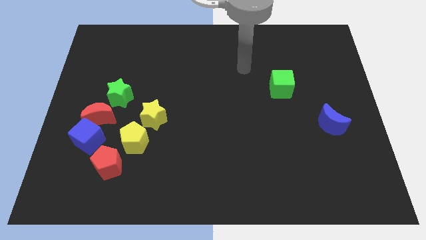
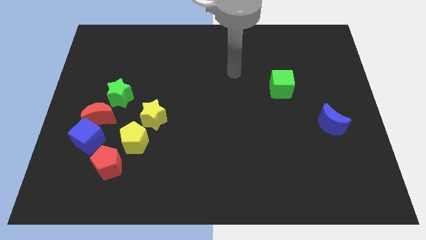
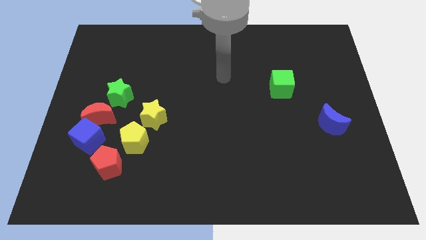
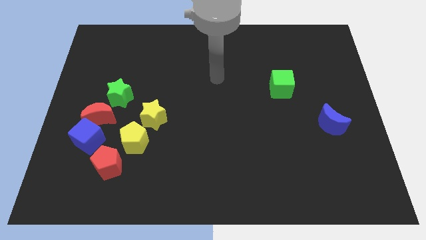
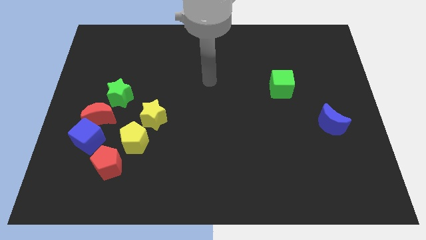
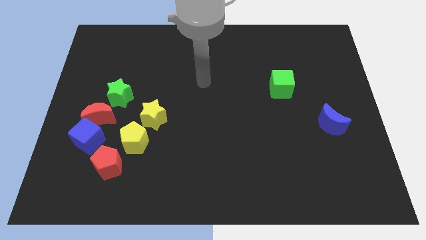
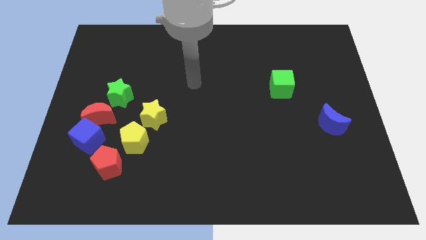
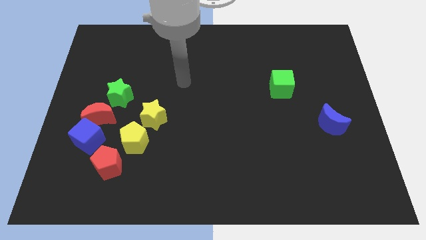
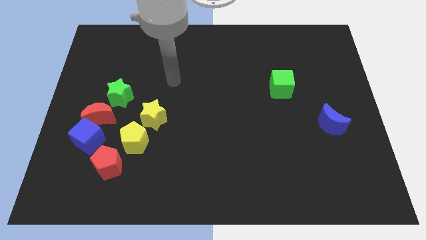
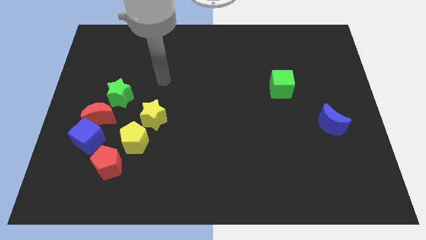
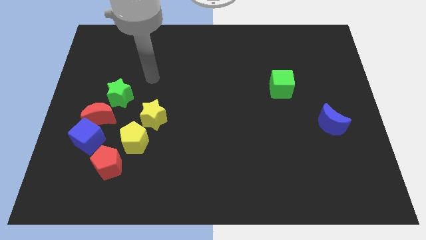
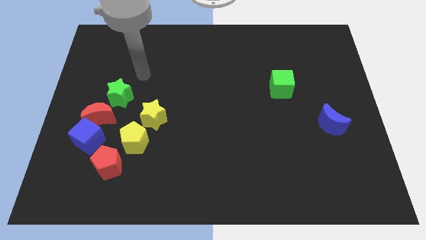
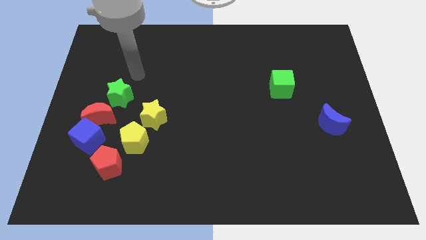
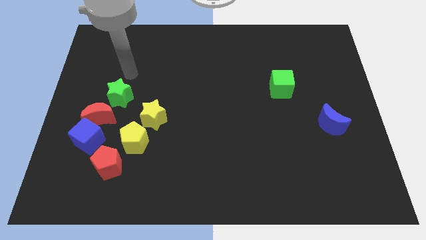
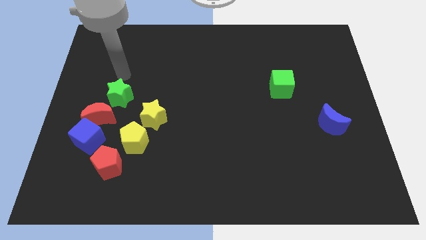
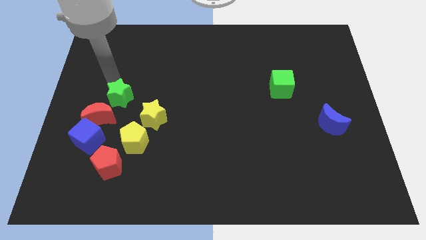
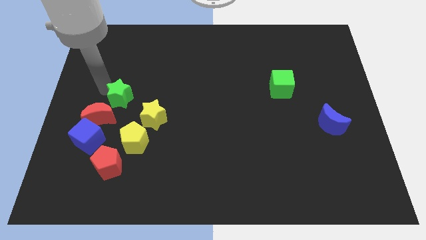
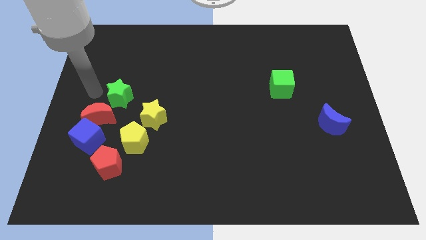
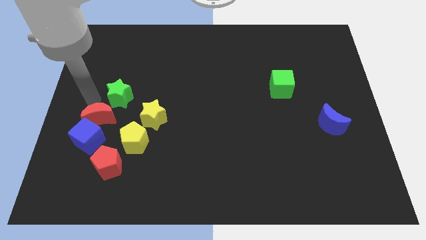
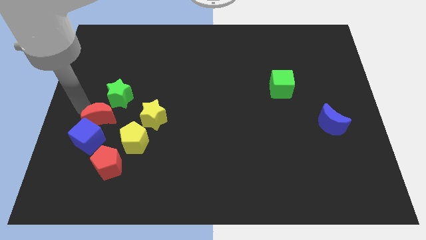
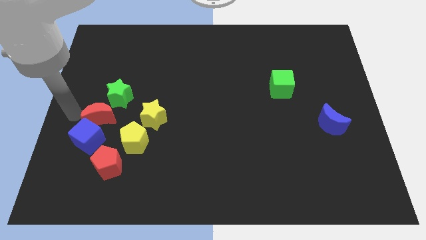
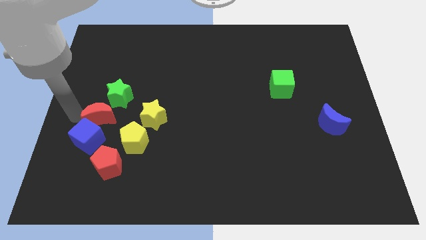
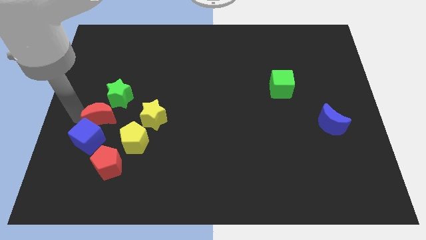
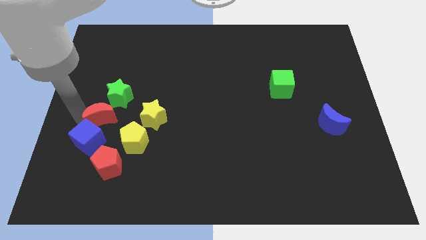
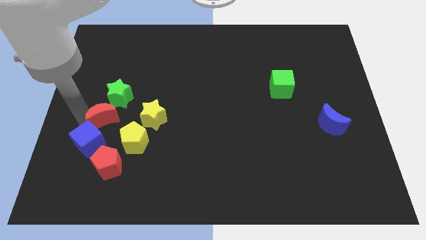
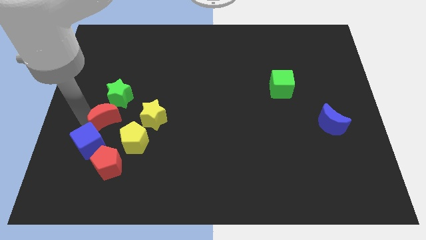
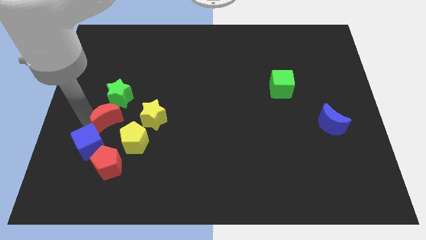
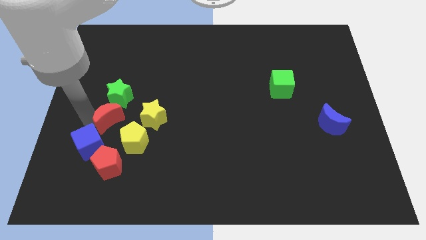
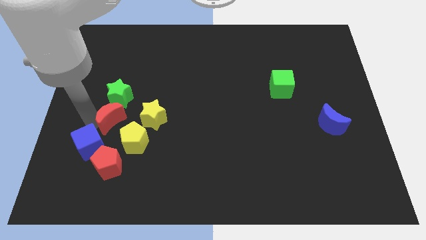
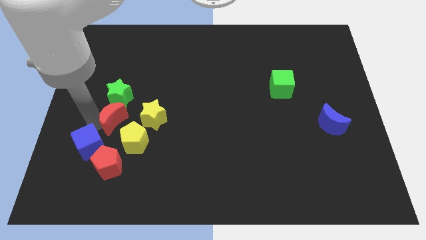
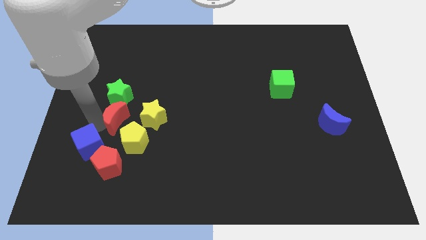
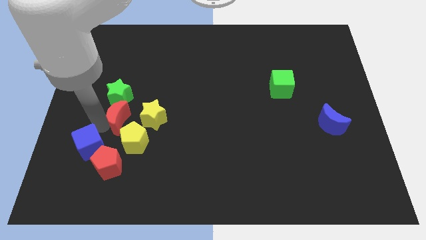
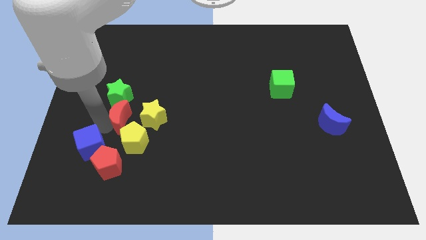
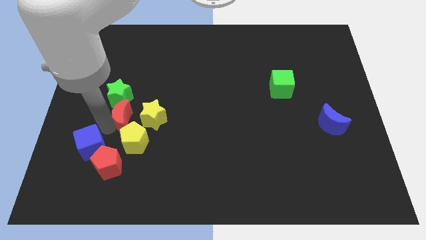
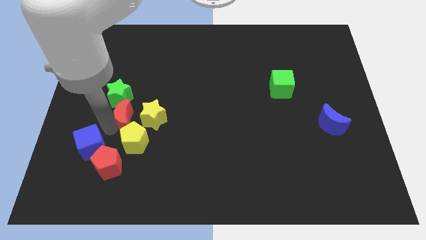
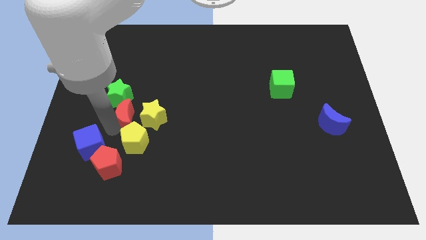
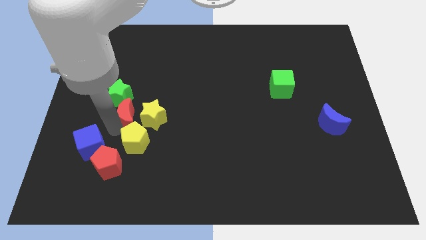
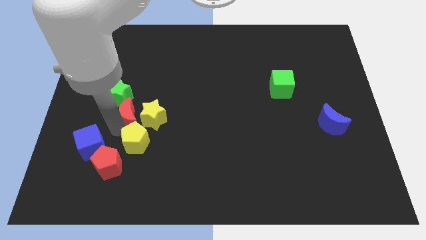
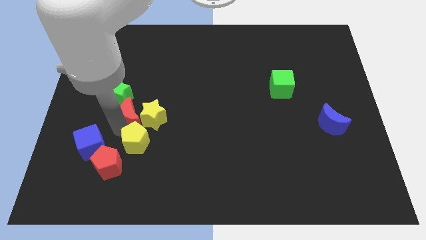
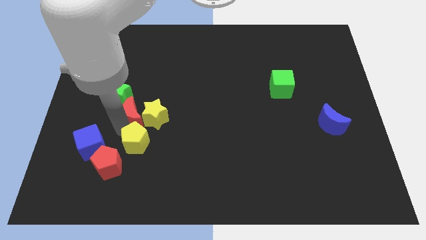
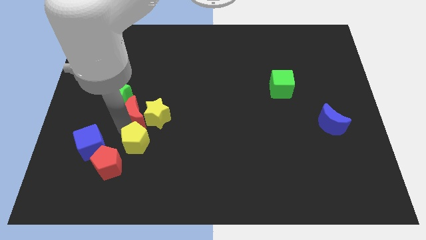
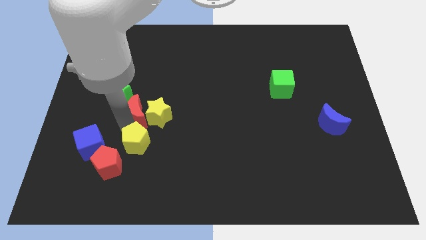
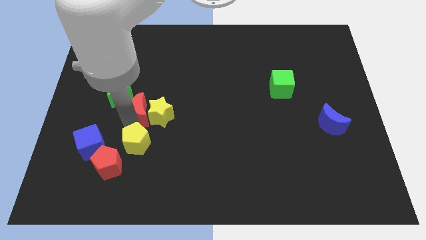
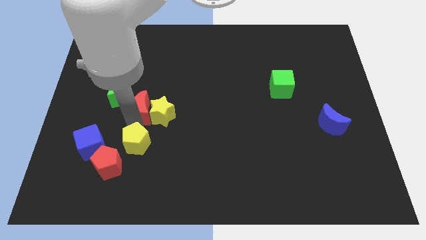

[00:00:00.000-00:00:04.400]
move the red moon somewhat upwards and right diagonally

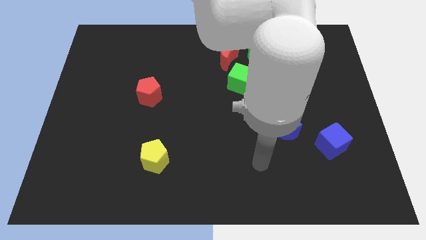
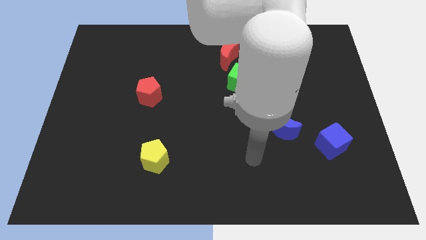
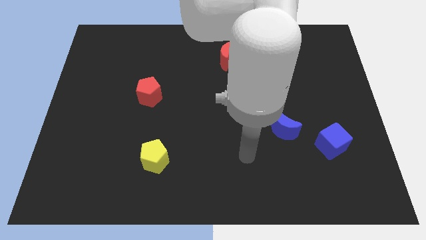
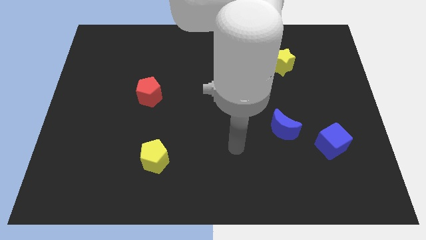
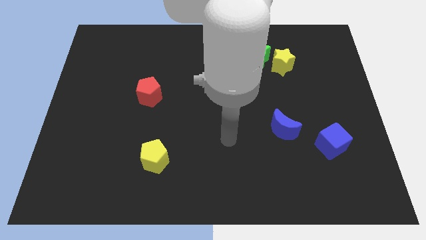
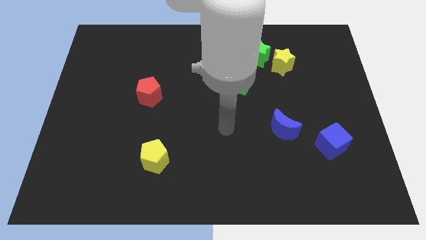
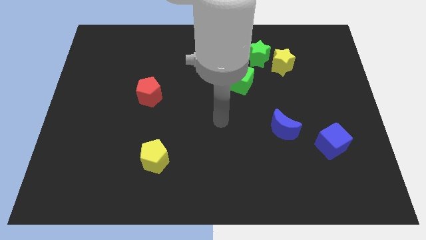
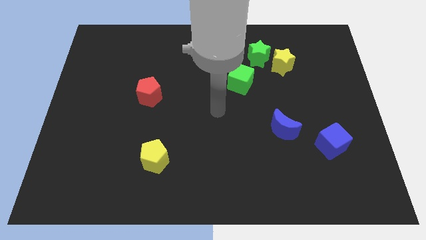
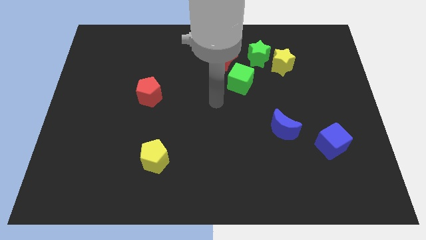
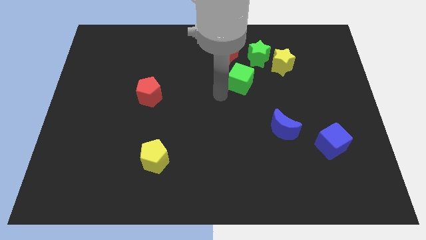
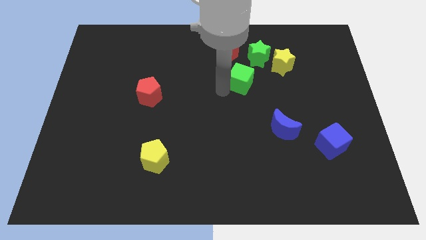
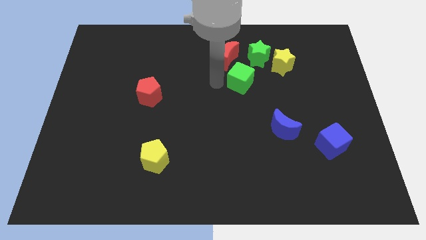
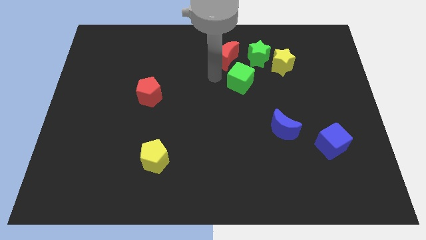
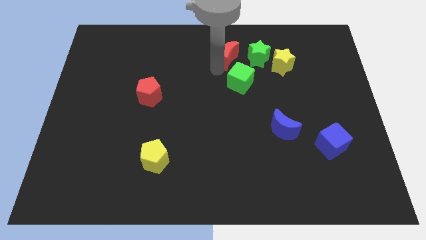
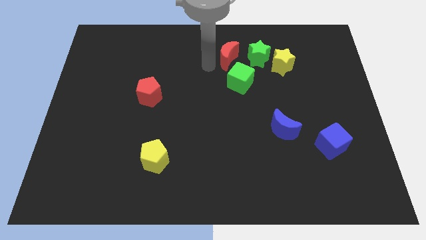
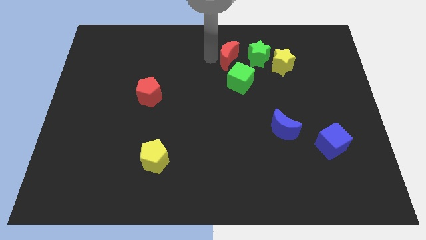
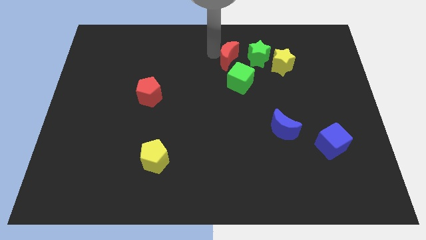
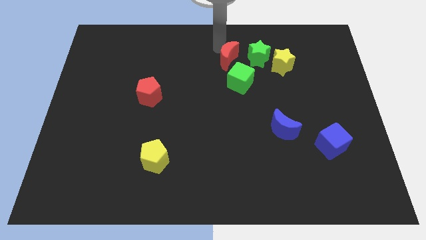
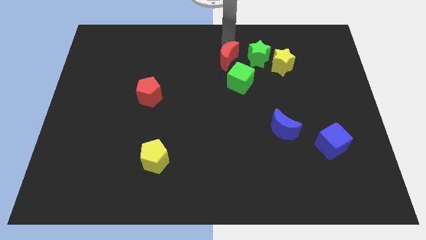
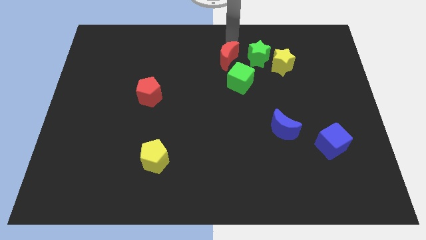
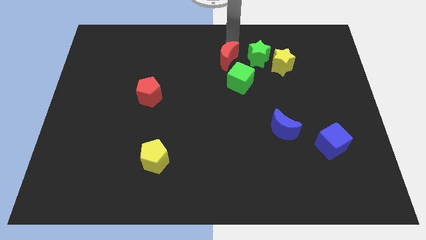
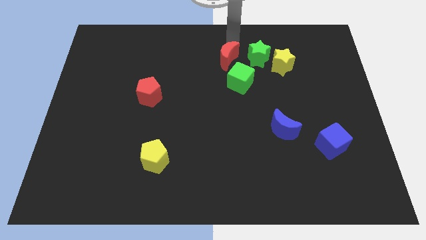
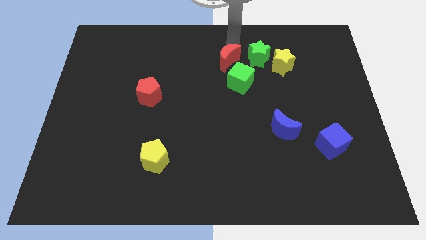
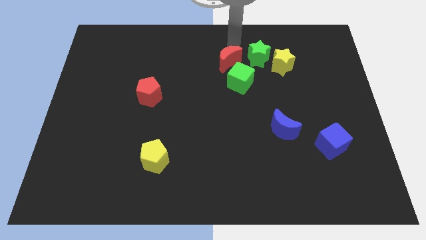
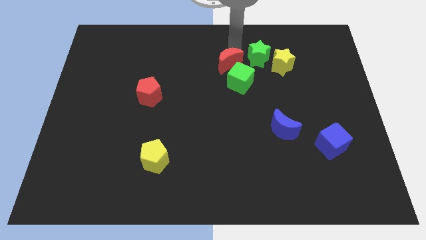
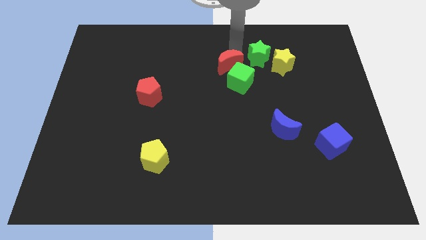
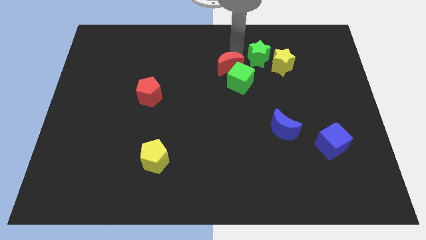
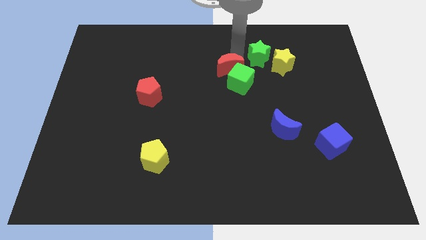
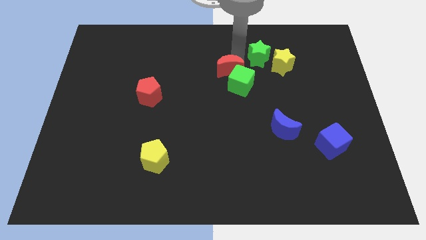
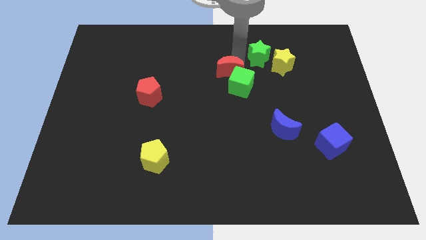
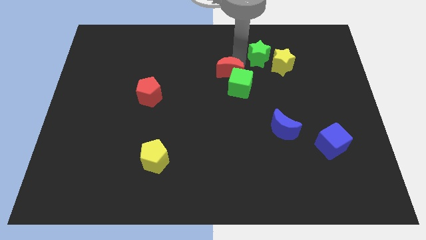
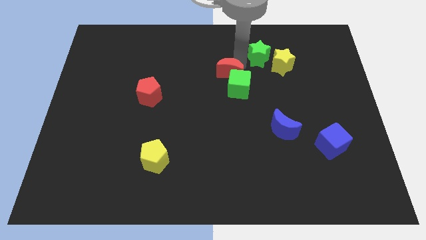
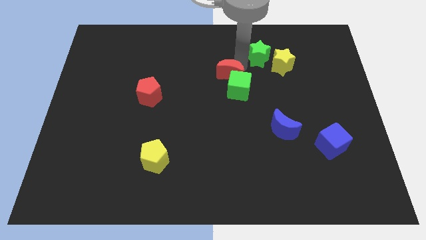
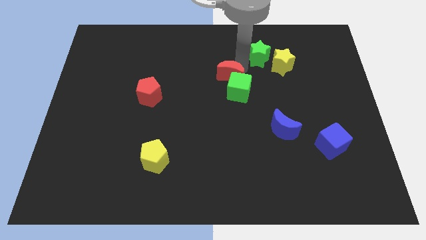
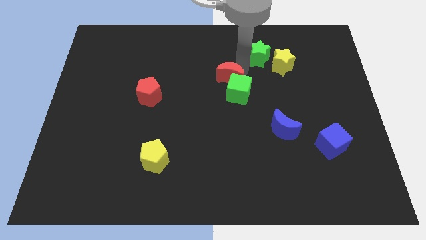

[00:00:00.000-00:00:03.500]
slide the red moon somewhat downwards
